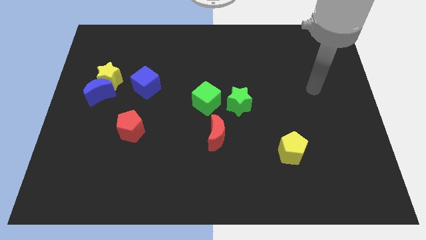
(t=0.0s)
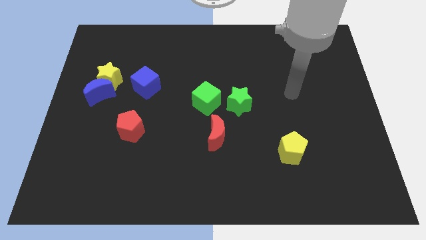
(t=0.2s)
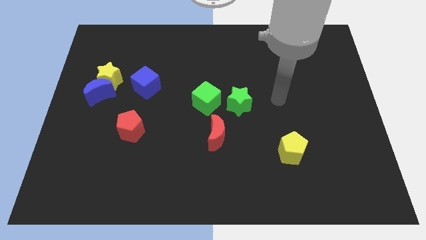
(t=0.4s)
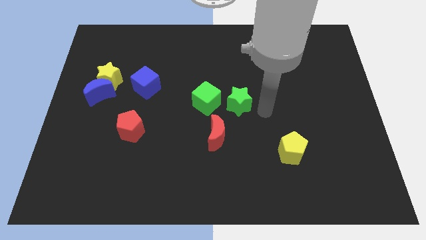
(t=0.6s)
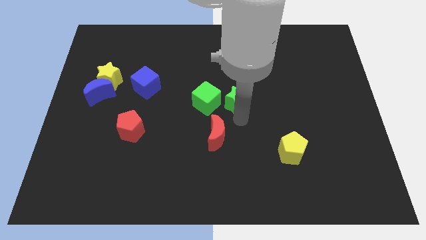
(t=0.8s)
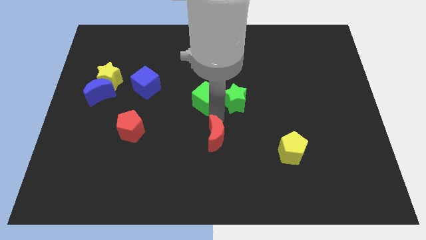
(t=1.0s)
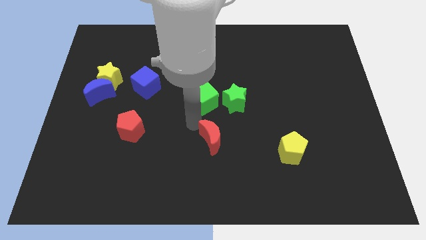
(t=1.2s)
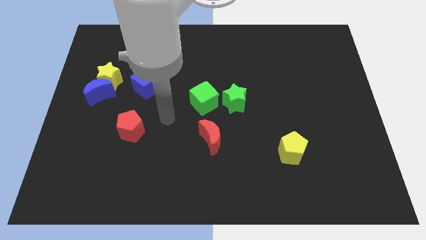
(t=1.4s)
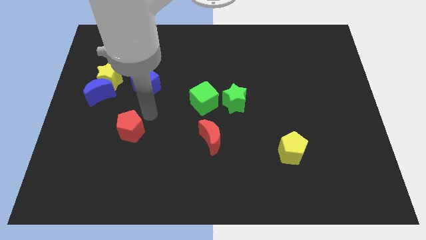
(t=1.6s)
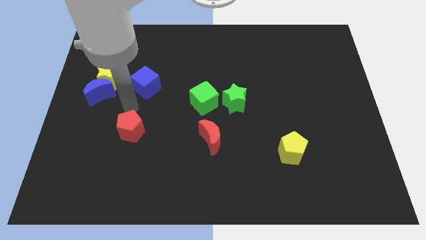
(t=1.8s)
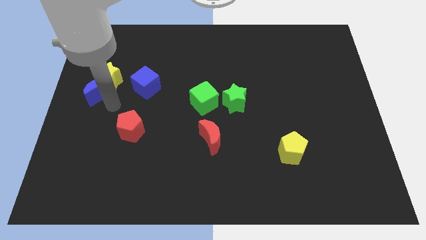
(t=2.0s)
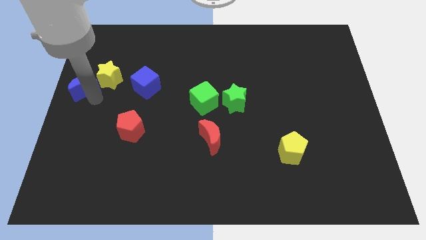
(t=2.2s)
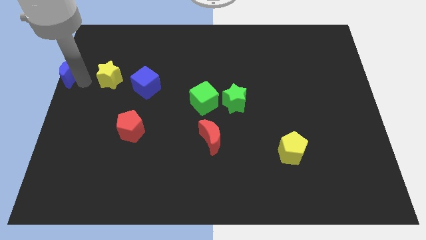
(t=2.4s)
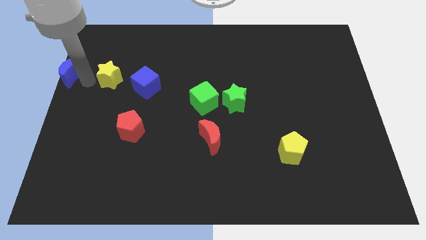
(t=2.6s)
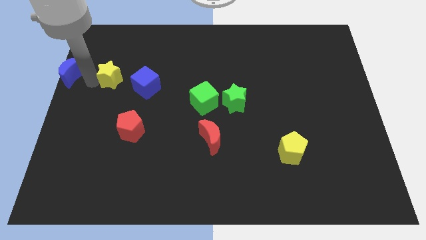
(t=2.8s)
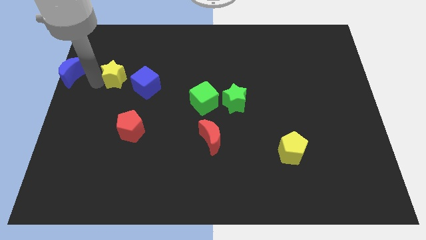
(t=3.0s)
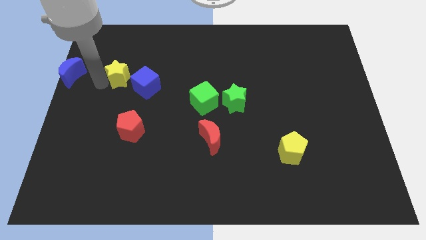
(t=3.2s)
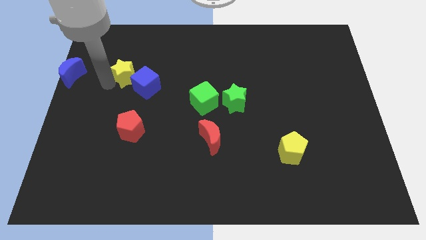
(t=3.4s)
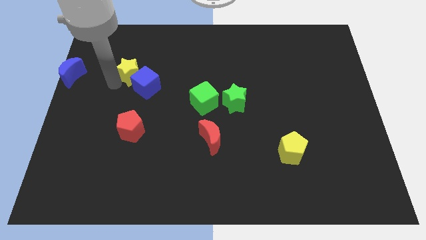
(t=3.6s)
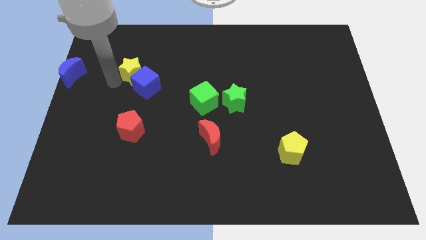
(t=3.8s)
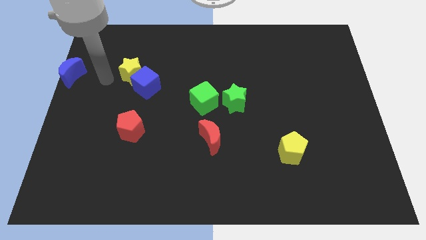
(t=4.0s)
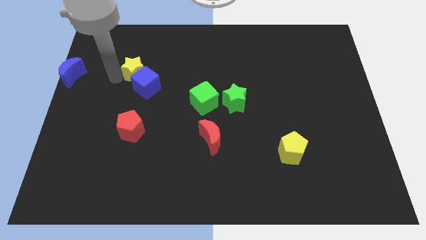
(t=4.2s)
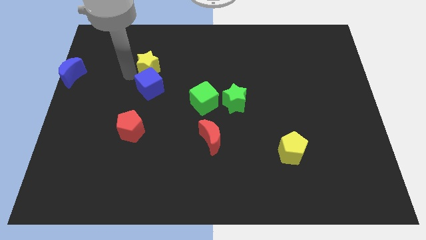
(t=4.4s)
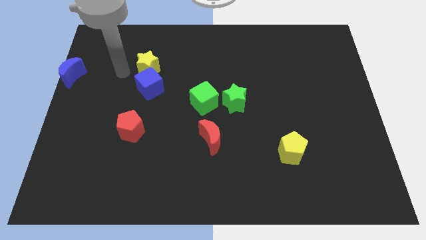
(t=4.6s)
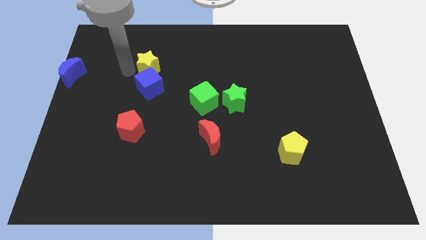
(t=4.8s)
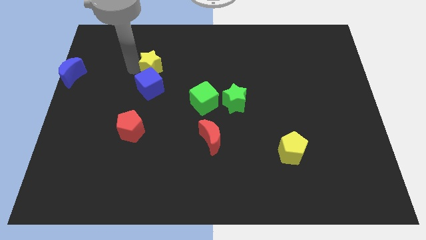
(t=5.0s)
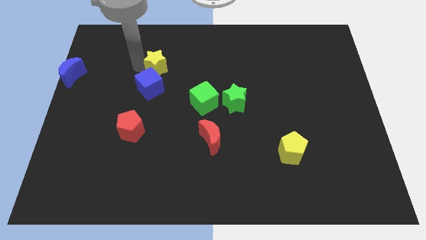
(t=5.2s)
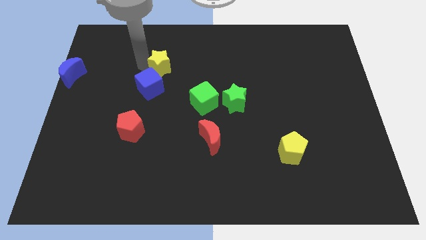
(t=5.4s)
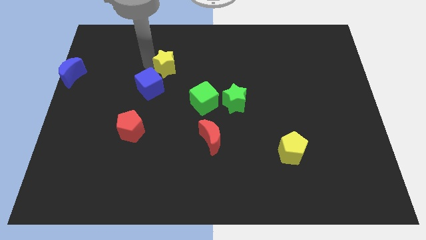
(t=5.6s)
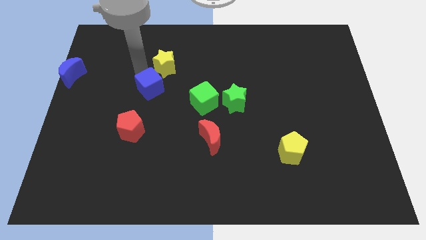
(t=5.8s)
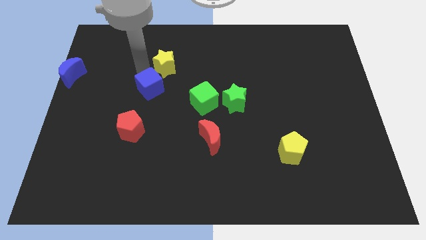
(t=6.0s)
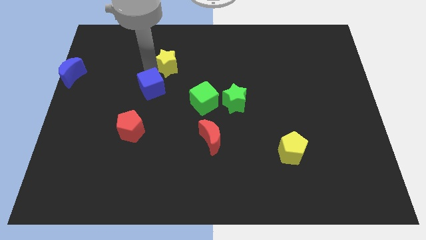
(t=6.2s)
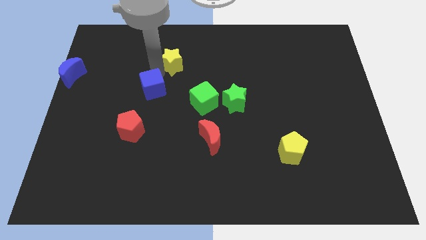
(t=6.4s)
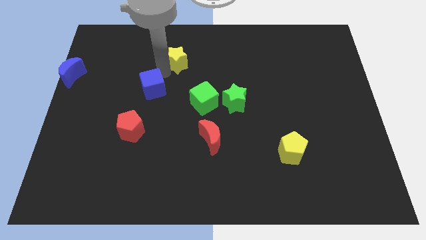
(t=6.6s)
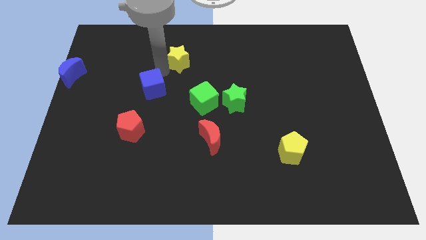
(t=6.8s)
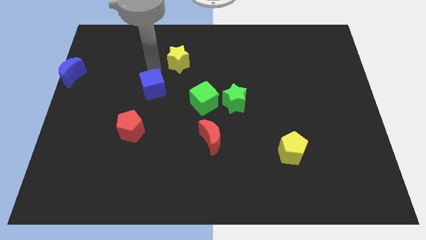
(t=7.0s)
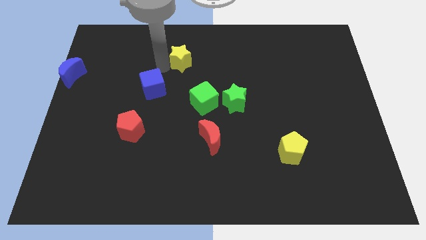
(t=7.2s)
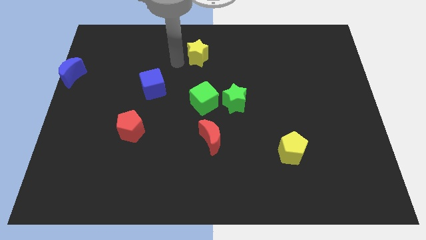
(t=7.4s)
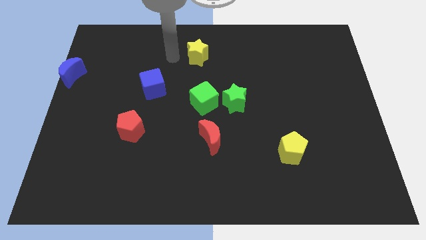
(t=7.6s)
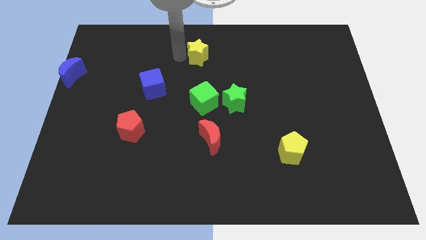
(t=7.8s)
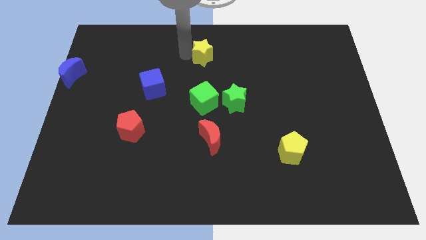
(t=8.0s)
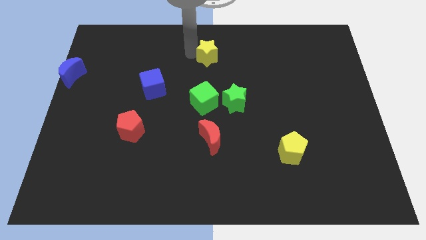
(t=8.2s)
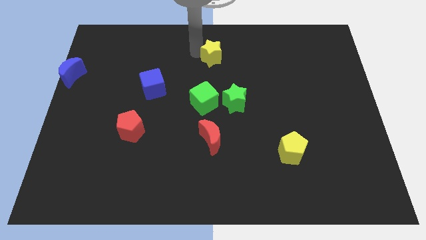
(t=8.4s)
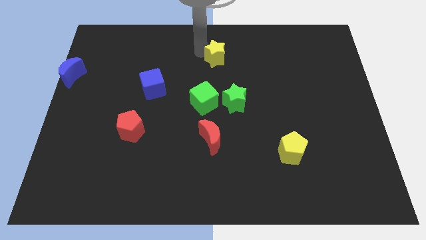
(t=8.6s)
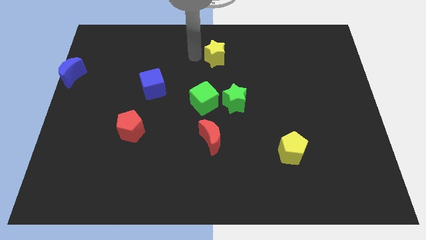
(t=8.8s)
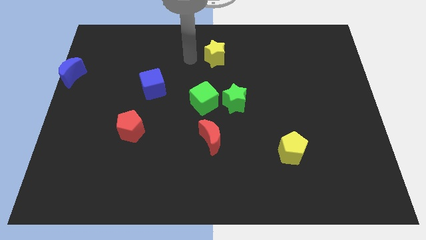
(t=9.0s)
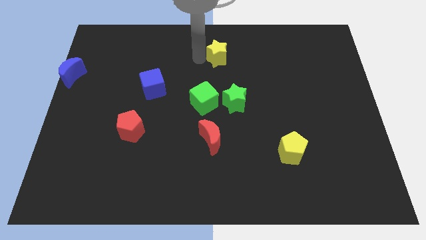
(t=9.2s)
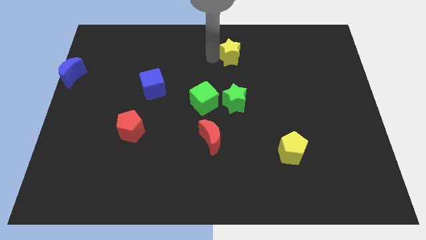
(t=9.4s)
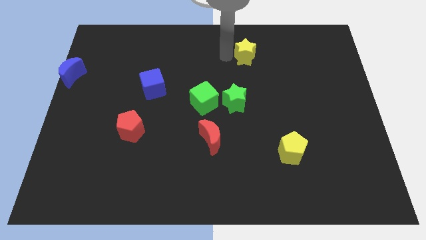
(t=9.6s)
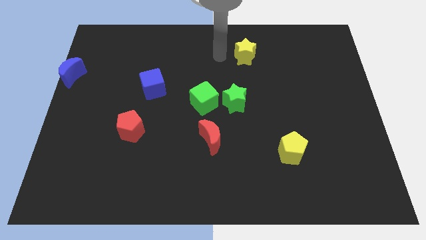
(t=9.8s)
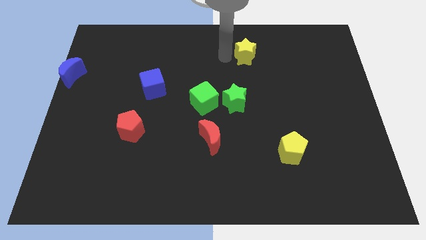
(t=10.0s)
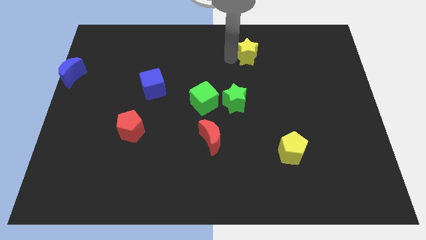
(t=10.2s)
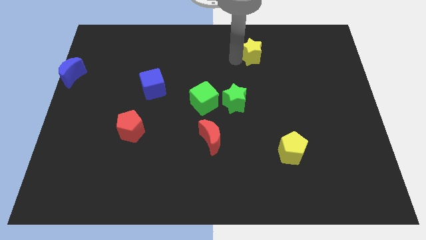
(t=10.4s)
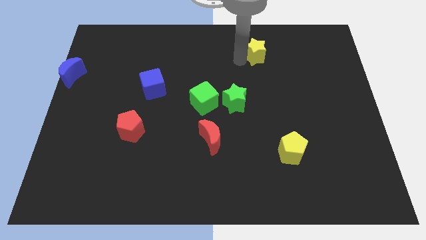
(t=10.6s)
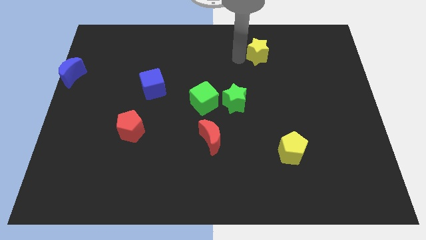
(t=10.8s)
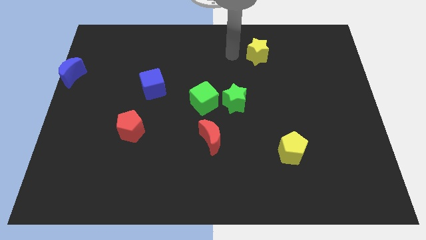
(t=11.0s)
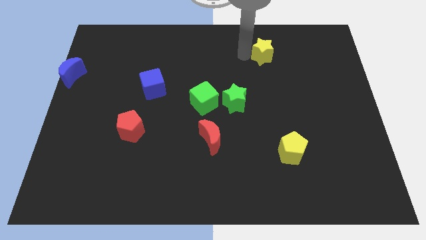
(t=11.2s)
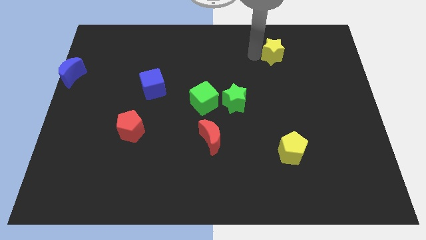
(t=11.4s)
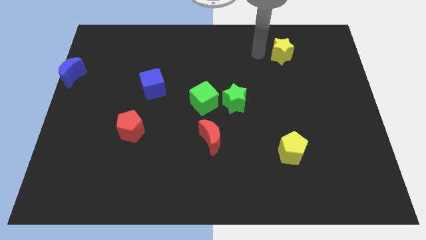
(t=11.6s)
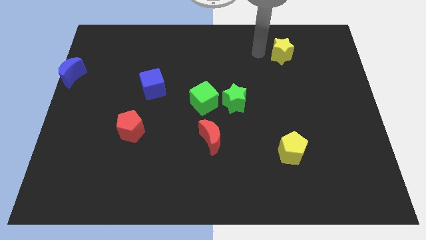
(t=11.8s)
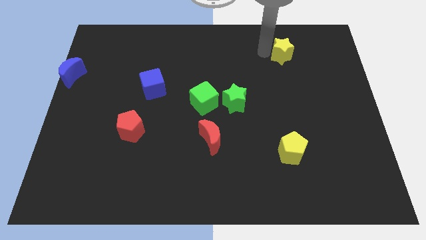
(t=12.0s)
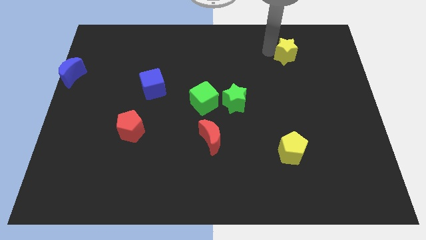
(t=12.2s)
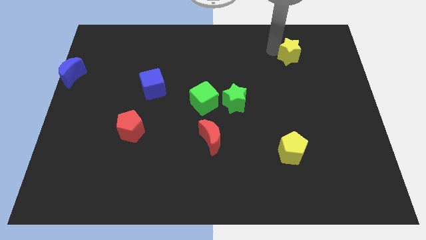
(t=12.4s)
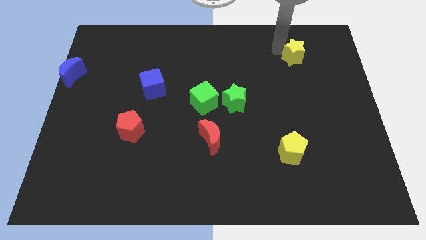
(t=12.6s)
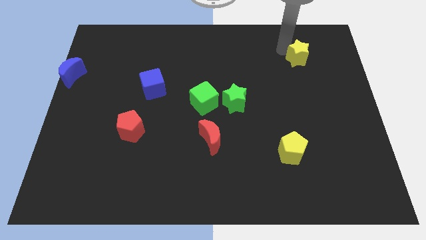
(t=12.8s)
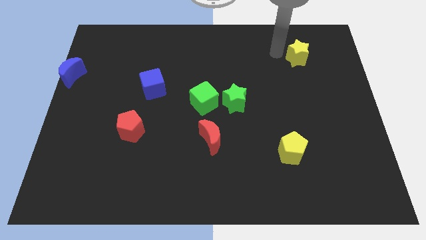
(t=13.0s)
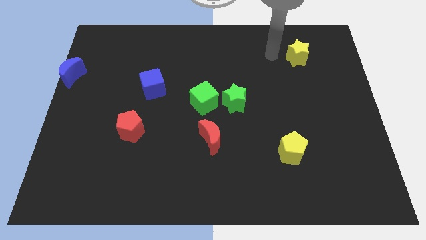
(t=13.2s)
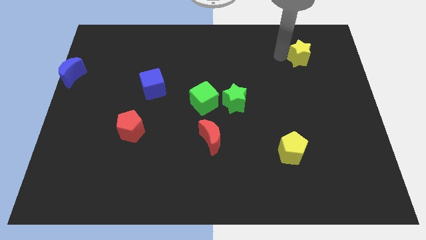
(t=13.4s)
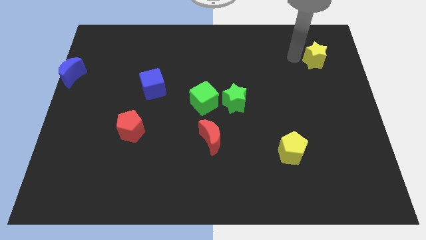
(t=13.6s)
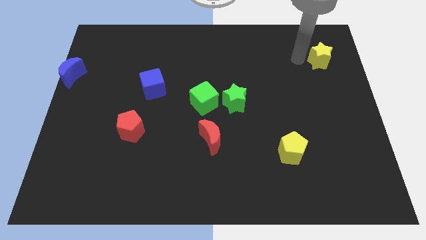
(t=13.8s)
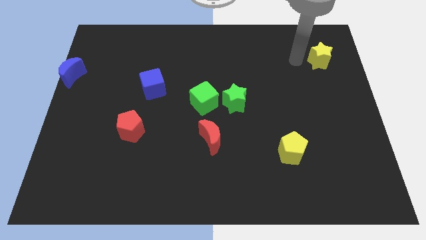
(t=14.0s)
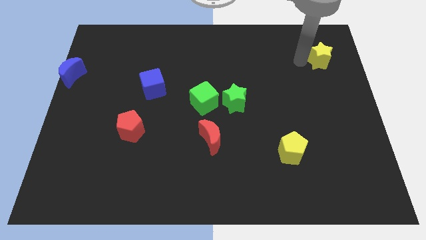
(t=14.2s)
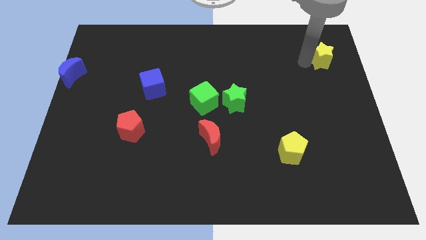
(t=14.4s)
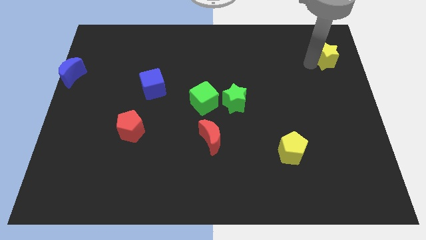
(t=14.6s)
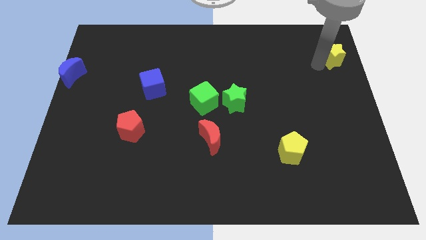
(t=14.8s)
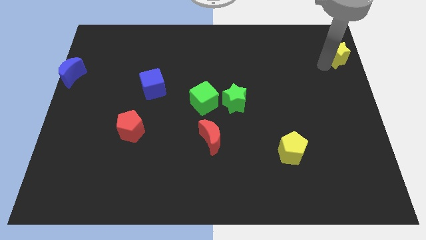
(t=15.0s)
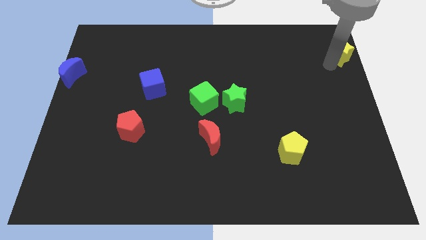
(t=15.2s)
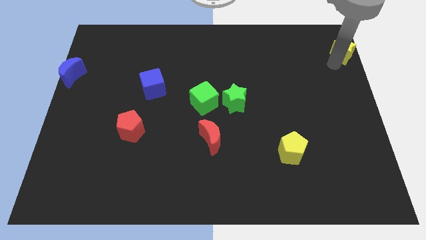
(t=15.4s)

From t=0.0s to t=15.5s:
push the yellow star to the top right
